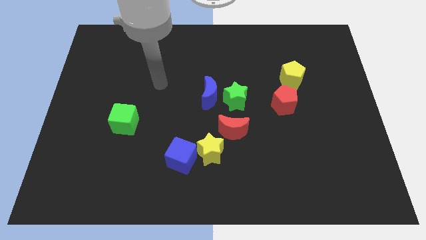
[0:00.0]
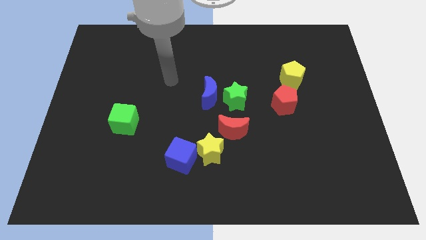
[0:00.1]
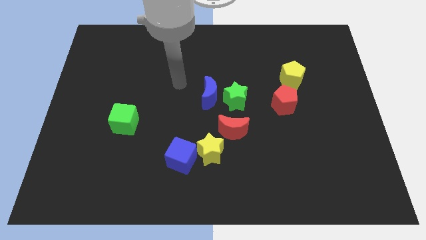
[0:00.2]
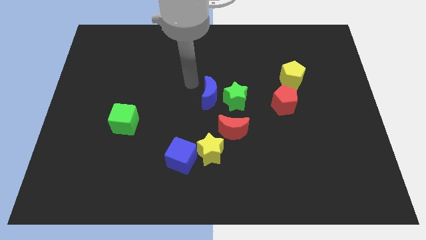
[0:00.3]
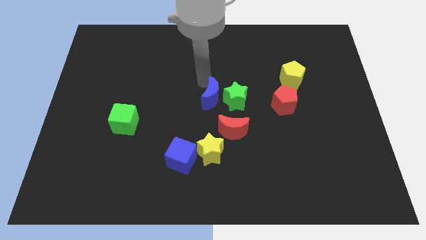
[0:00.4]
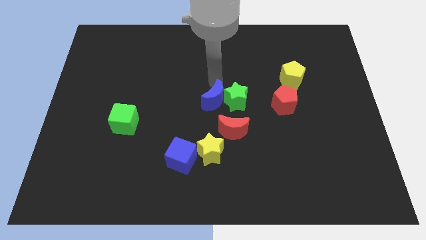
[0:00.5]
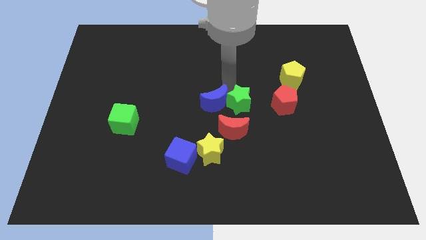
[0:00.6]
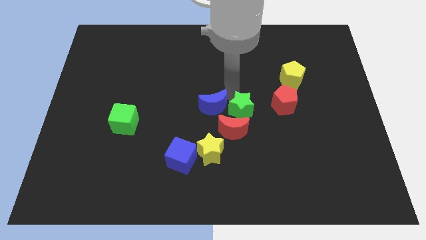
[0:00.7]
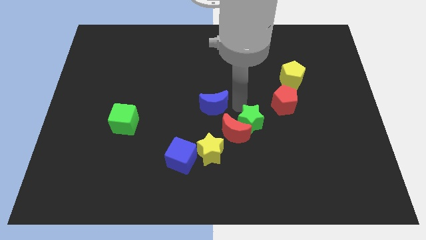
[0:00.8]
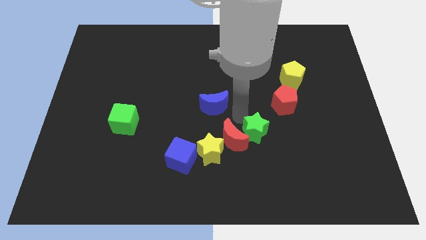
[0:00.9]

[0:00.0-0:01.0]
separate the blue moon from the green star

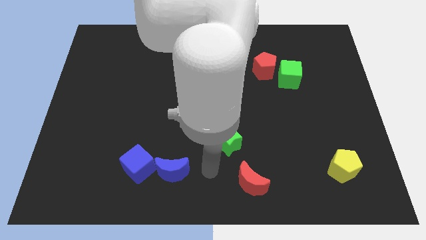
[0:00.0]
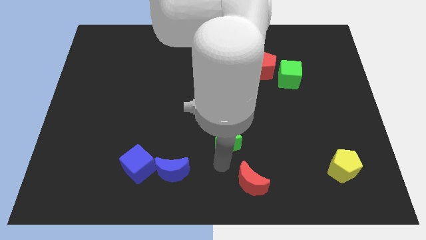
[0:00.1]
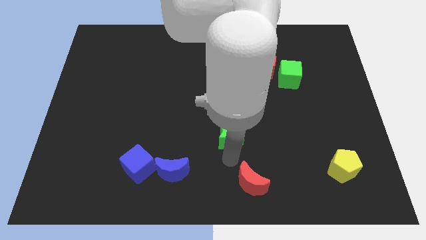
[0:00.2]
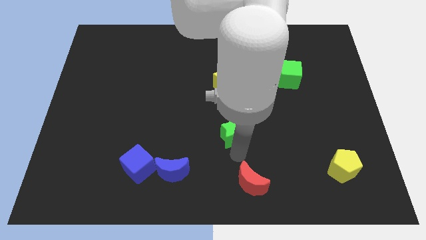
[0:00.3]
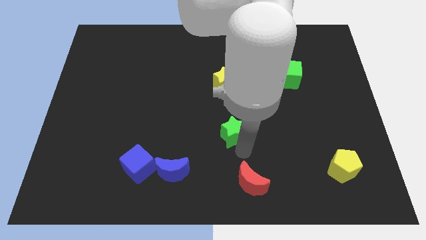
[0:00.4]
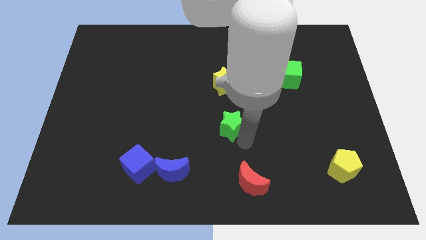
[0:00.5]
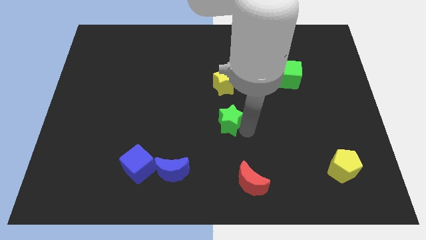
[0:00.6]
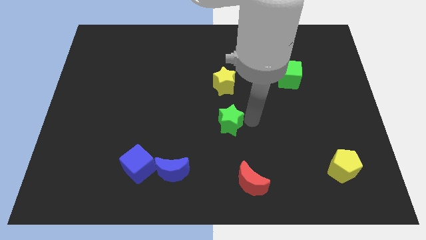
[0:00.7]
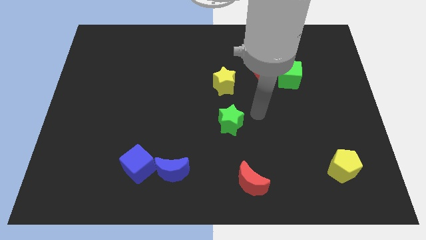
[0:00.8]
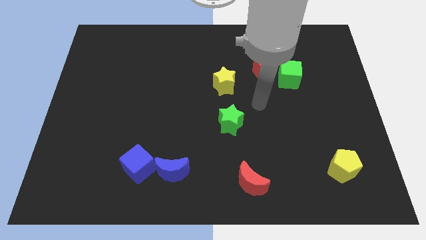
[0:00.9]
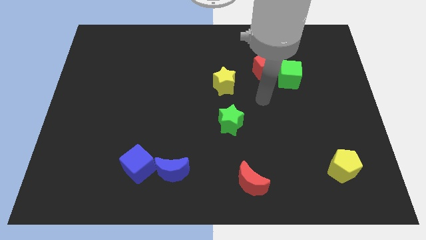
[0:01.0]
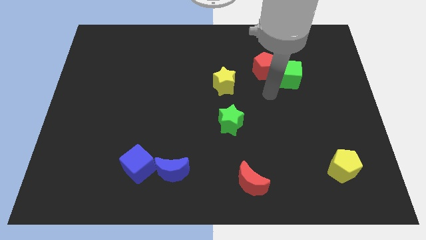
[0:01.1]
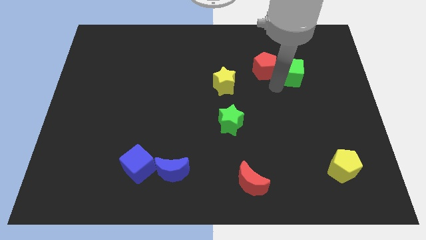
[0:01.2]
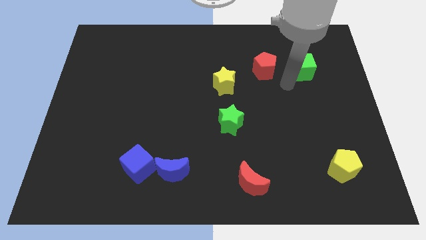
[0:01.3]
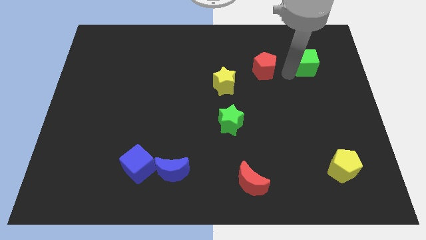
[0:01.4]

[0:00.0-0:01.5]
pull the red pentagon apart from the green cube

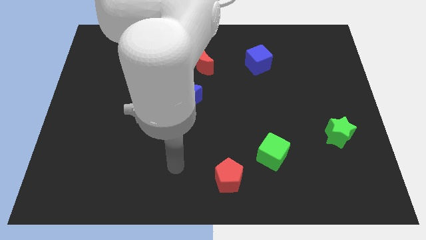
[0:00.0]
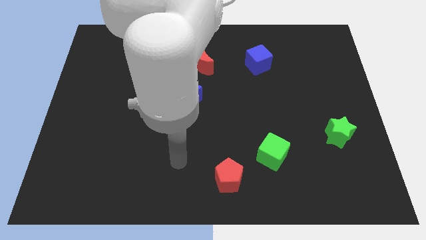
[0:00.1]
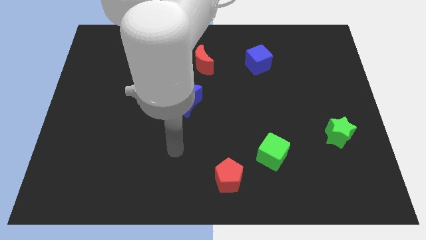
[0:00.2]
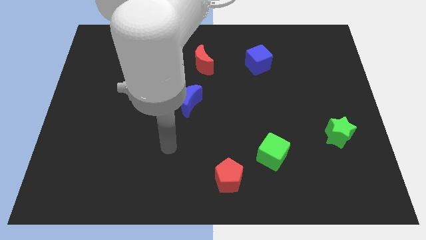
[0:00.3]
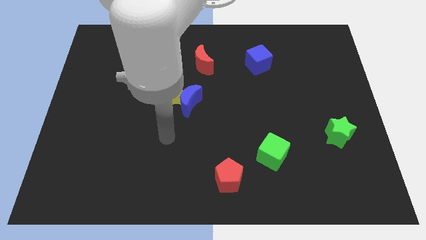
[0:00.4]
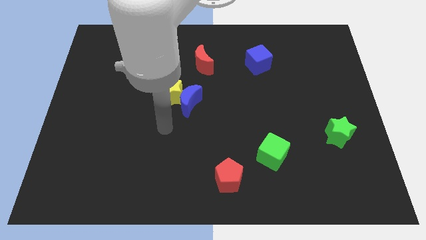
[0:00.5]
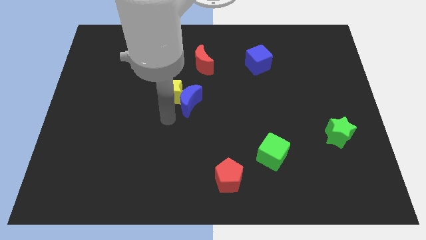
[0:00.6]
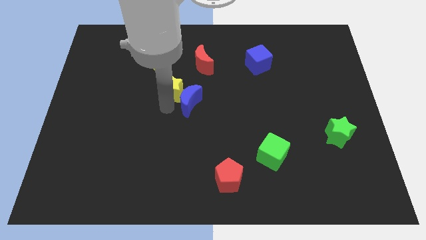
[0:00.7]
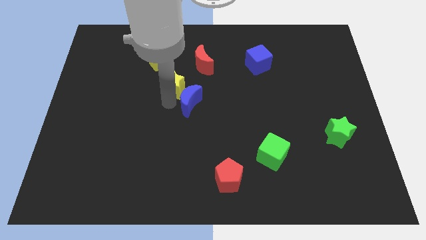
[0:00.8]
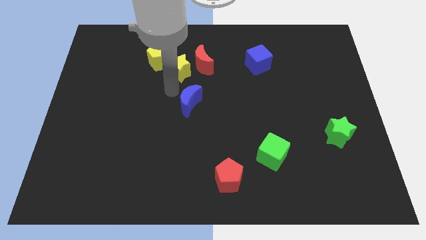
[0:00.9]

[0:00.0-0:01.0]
pull the blue moon apart from the yellow star

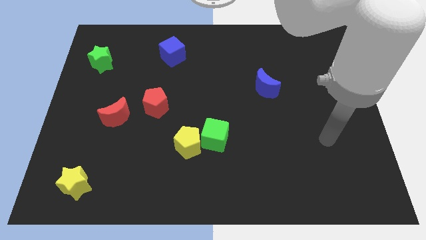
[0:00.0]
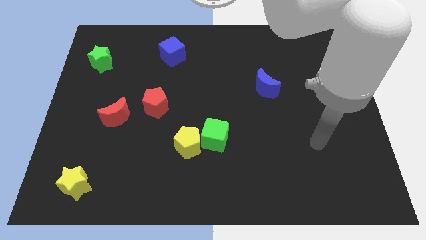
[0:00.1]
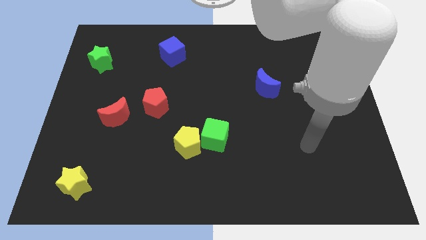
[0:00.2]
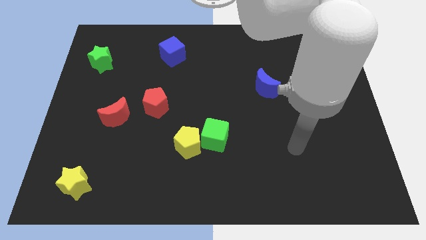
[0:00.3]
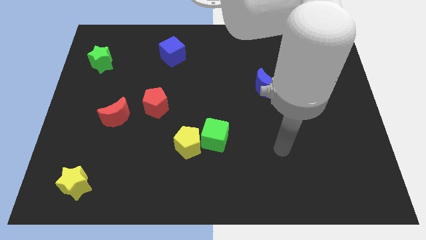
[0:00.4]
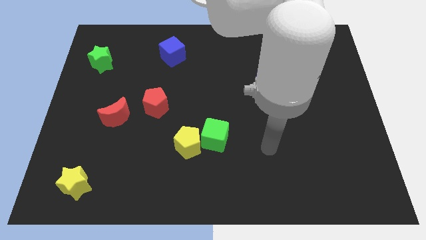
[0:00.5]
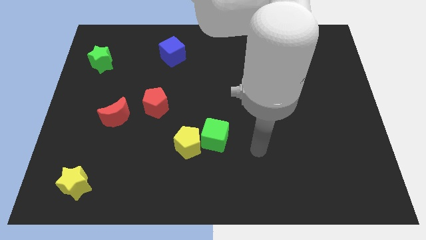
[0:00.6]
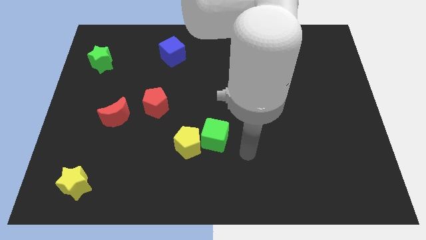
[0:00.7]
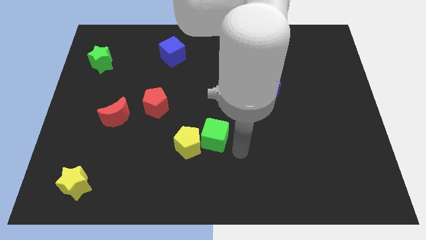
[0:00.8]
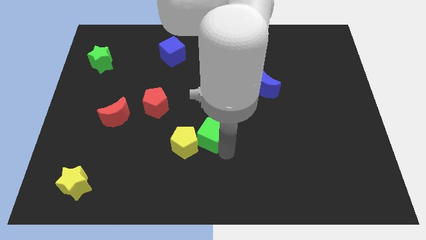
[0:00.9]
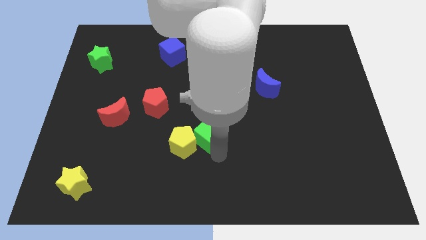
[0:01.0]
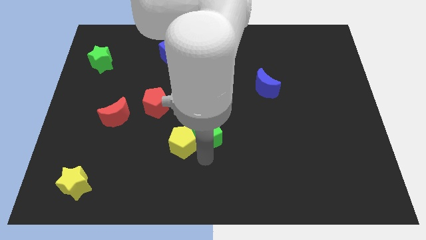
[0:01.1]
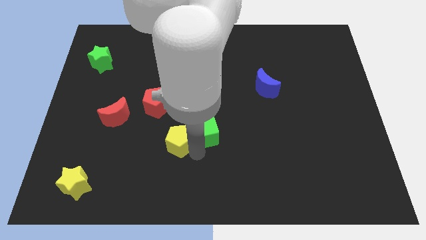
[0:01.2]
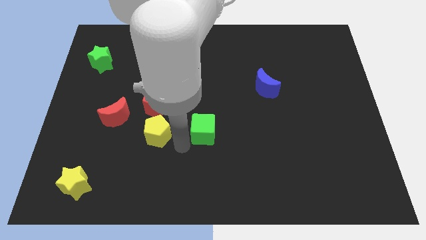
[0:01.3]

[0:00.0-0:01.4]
move the green cube away from the yellow pentagon

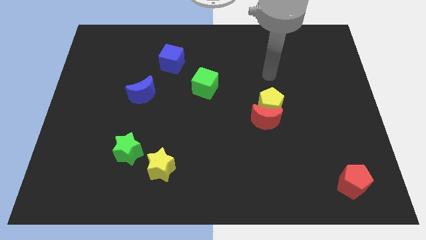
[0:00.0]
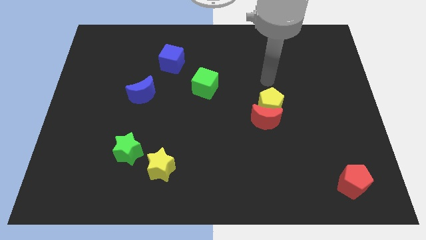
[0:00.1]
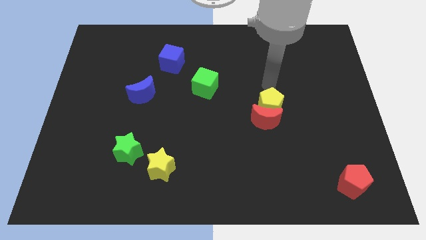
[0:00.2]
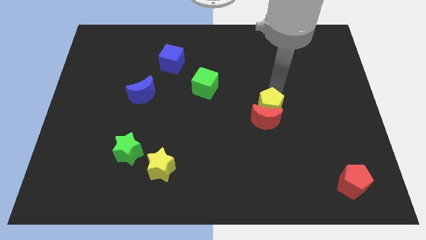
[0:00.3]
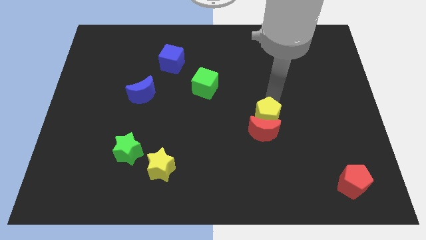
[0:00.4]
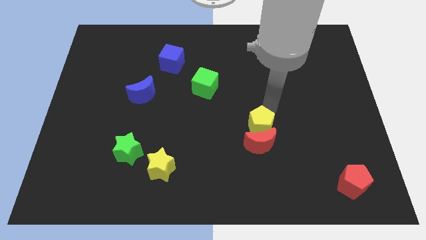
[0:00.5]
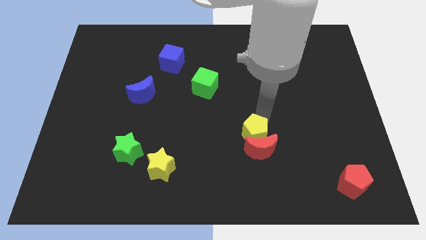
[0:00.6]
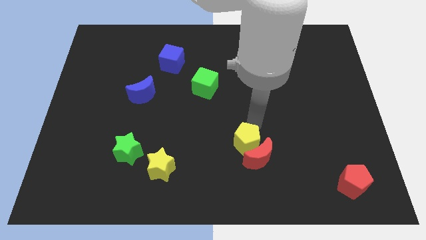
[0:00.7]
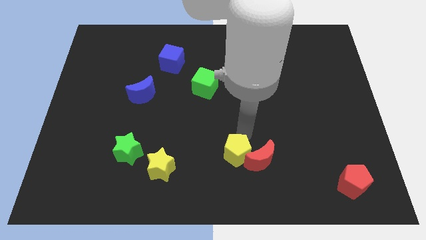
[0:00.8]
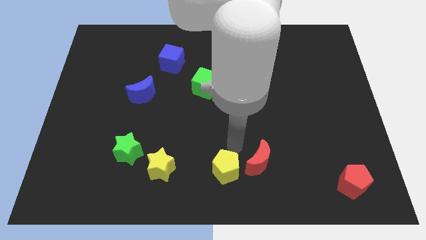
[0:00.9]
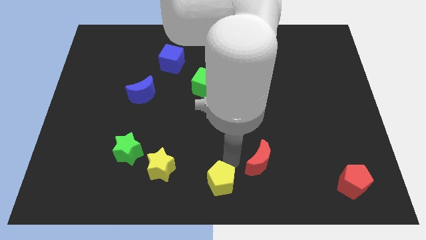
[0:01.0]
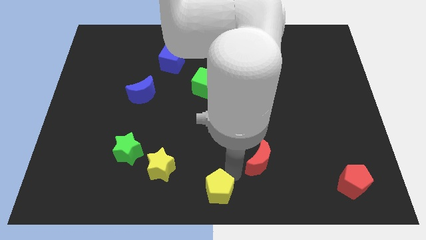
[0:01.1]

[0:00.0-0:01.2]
move the red moon away from the yellow pentagon

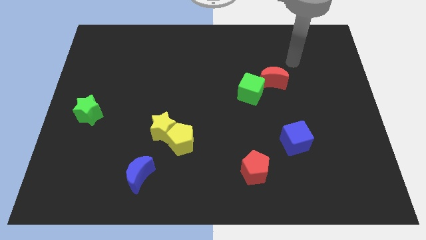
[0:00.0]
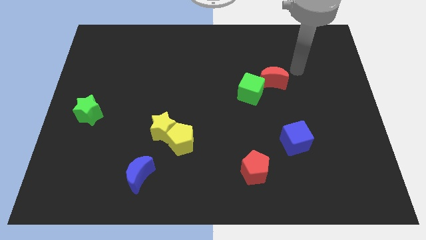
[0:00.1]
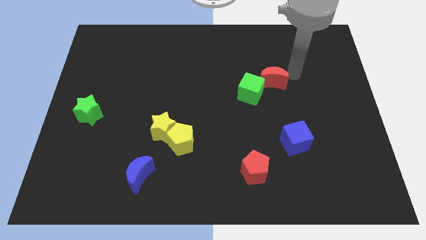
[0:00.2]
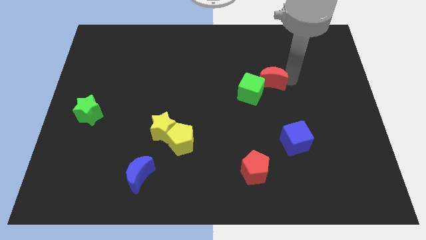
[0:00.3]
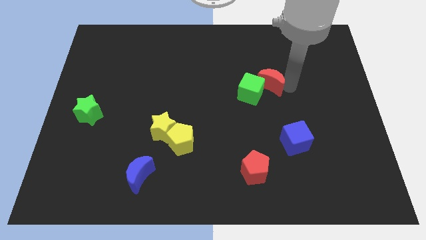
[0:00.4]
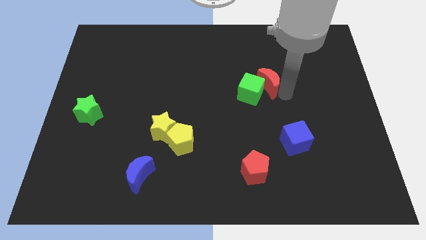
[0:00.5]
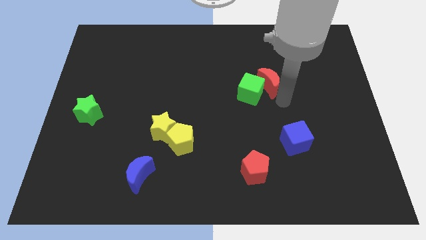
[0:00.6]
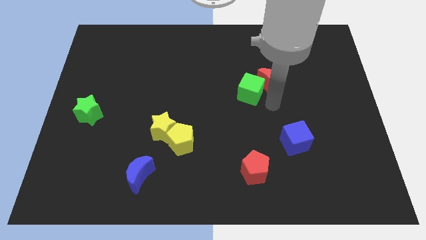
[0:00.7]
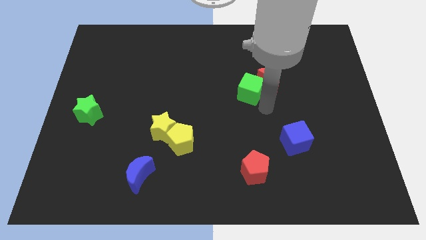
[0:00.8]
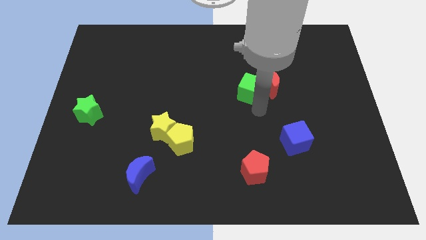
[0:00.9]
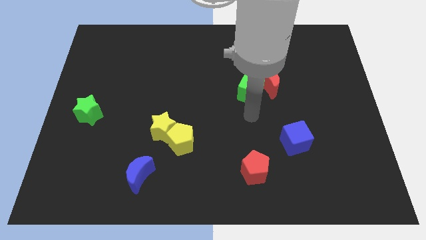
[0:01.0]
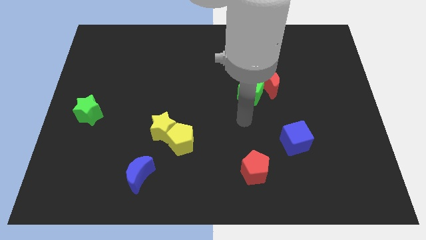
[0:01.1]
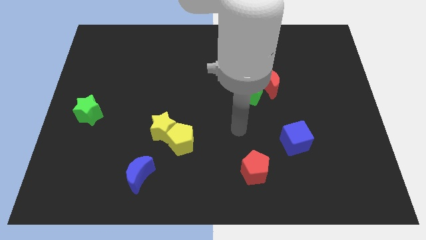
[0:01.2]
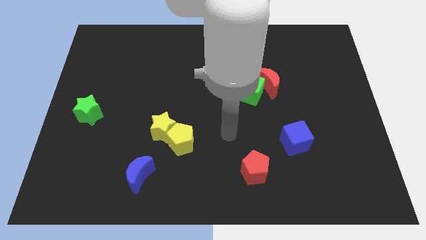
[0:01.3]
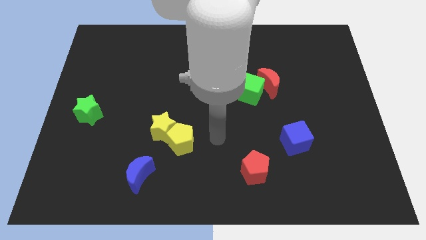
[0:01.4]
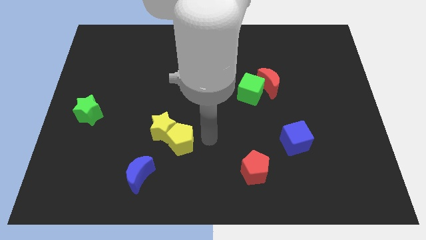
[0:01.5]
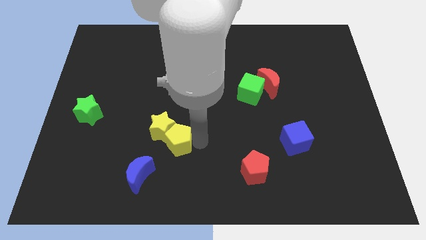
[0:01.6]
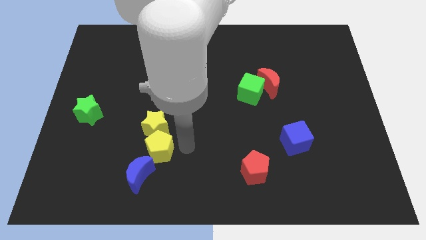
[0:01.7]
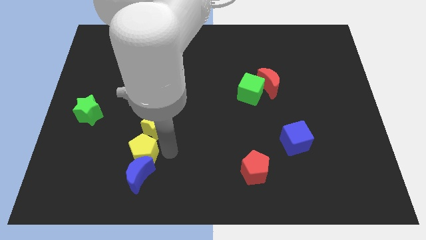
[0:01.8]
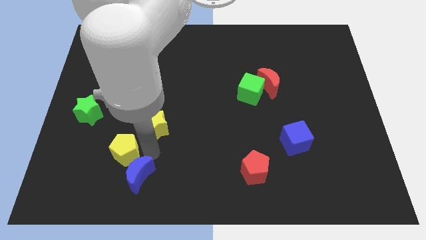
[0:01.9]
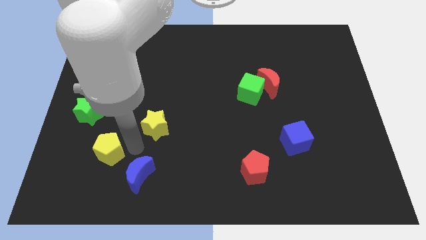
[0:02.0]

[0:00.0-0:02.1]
move the yellow star away from the yellow pentagon

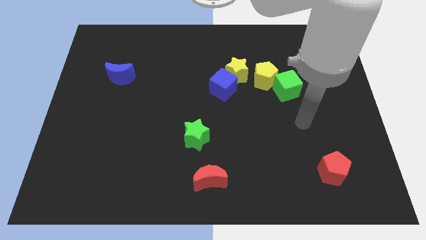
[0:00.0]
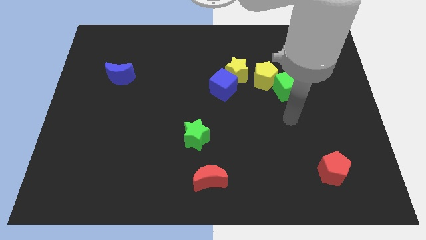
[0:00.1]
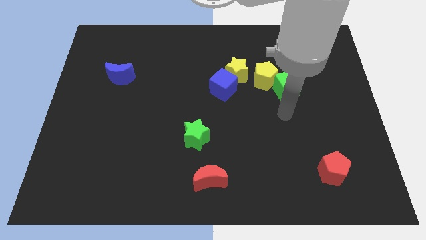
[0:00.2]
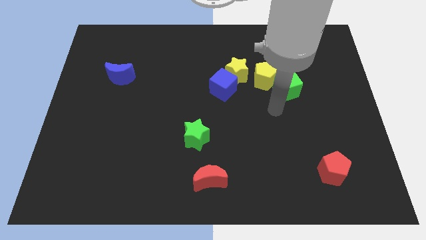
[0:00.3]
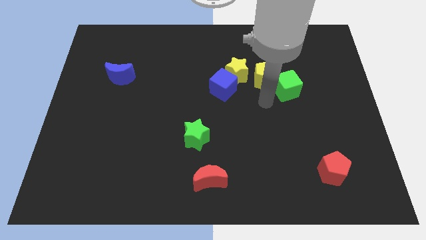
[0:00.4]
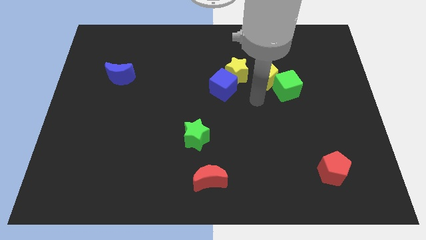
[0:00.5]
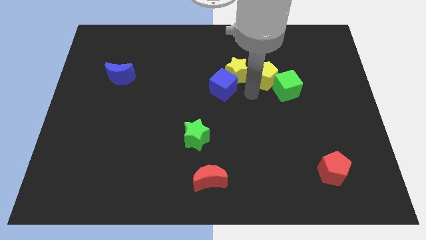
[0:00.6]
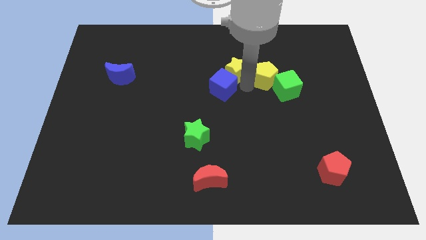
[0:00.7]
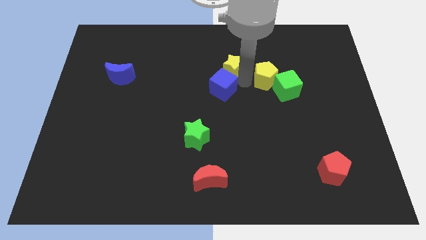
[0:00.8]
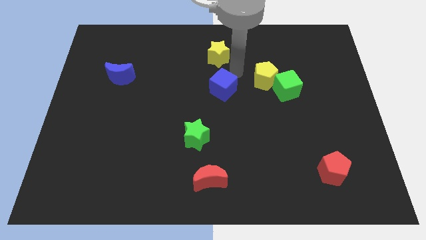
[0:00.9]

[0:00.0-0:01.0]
separate the blue cube from the yellow star

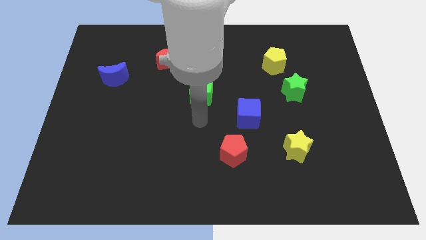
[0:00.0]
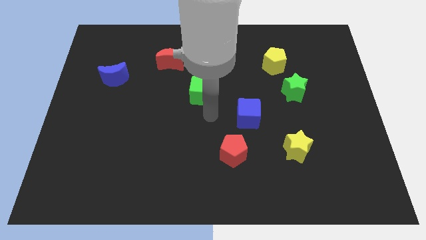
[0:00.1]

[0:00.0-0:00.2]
move the green star away from the yellow pentagon
